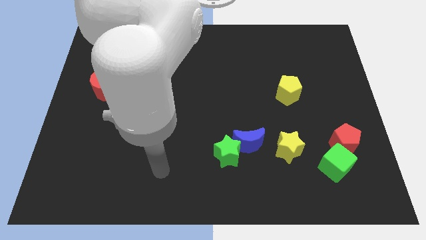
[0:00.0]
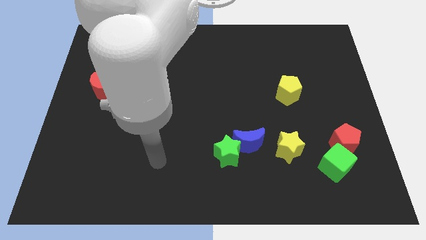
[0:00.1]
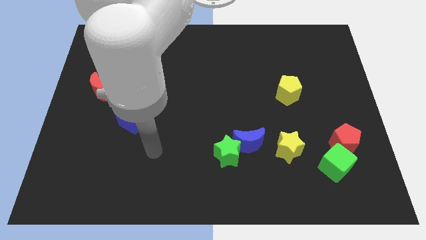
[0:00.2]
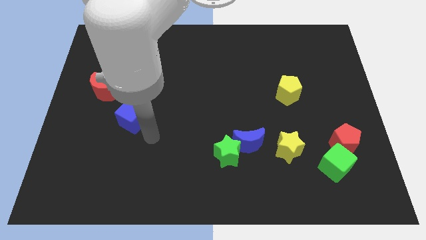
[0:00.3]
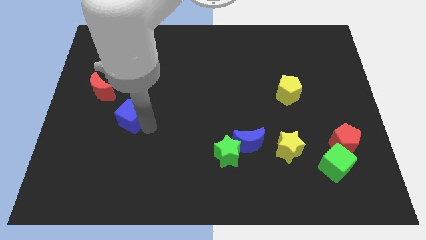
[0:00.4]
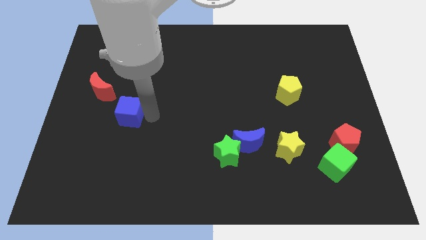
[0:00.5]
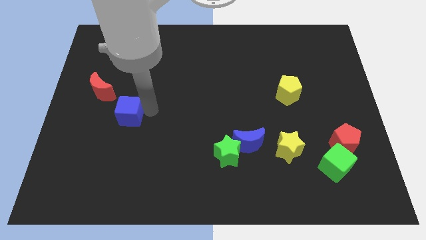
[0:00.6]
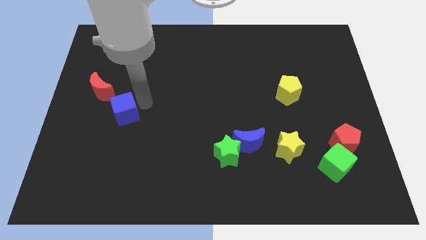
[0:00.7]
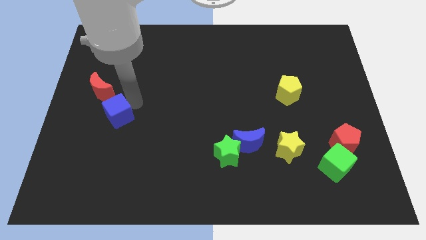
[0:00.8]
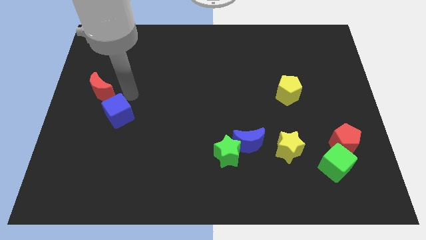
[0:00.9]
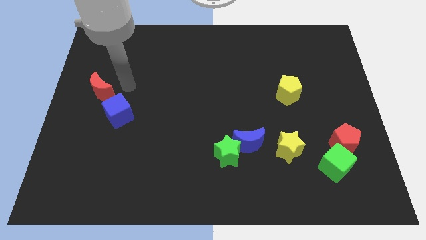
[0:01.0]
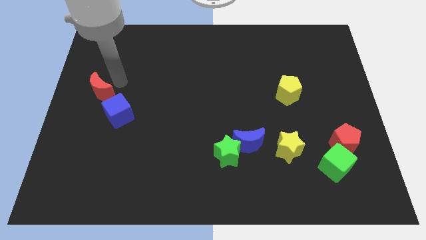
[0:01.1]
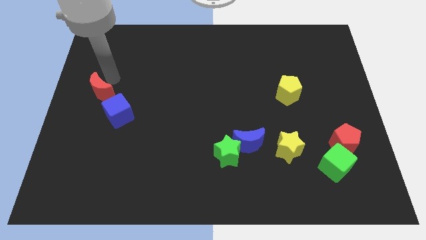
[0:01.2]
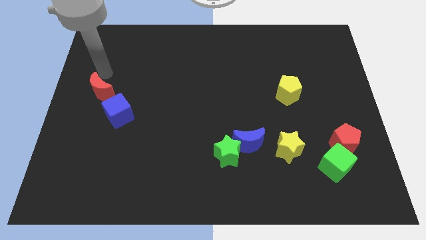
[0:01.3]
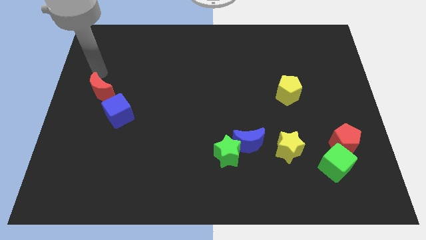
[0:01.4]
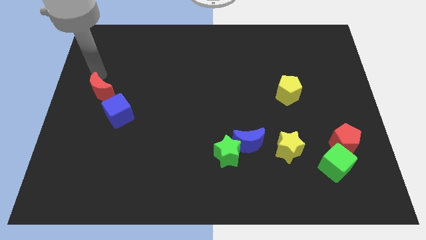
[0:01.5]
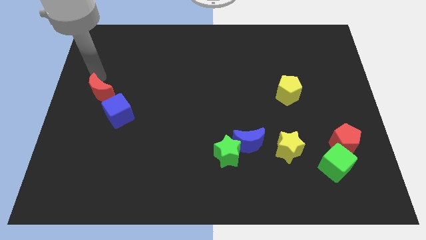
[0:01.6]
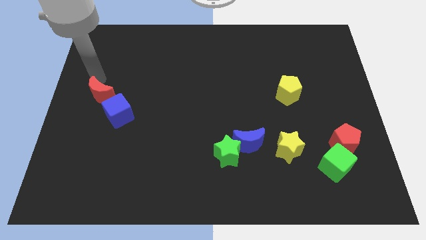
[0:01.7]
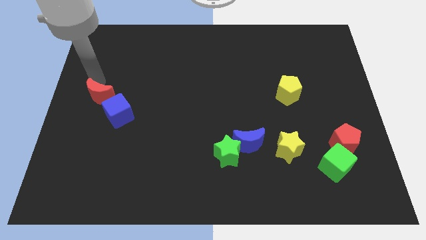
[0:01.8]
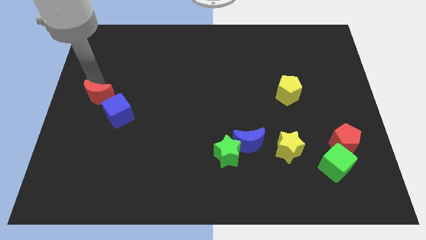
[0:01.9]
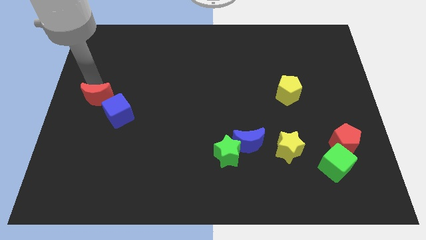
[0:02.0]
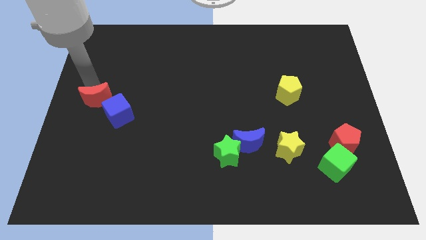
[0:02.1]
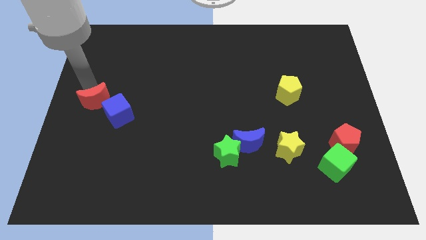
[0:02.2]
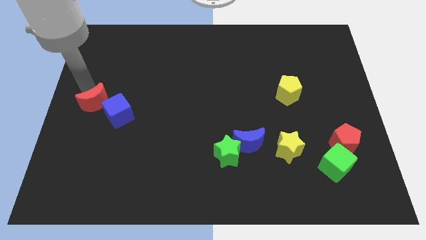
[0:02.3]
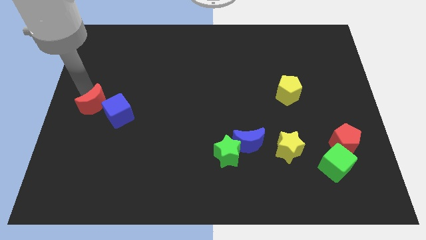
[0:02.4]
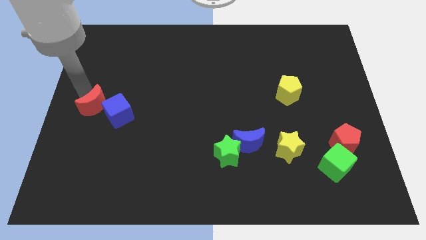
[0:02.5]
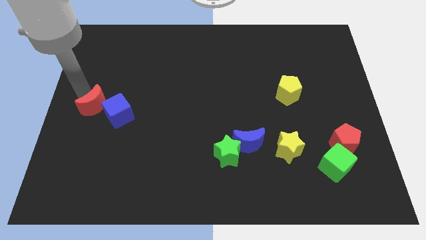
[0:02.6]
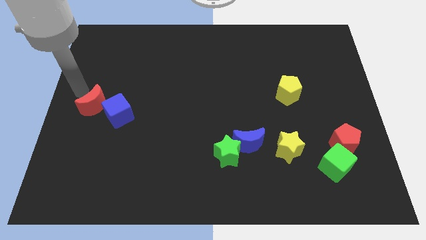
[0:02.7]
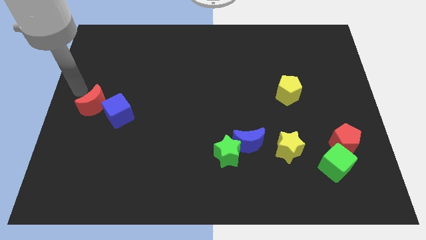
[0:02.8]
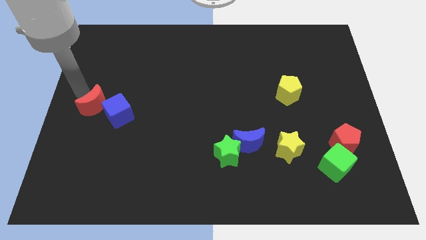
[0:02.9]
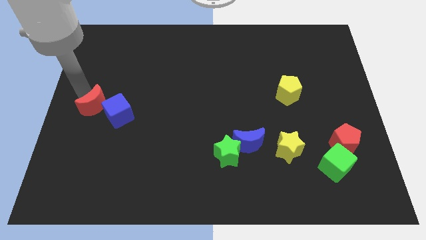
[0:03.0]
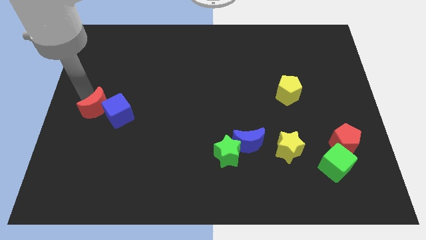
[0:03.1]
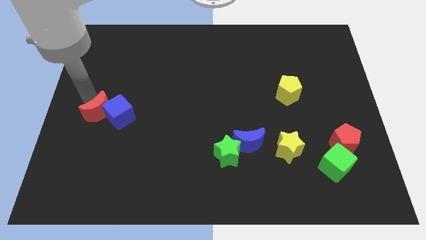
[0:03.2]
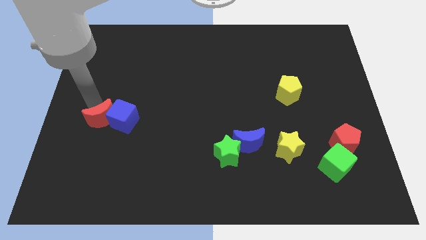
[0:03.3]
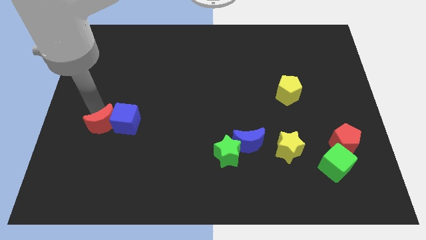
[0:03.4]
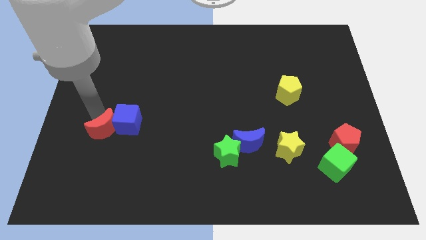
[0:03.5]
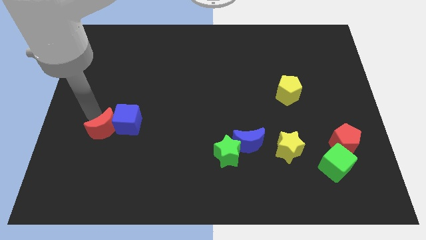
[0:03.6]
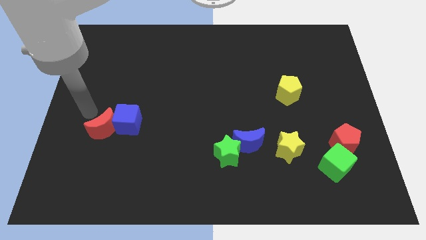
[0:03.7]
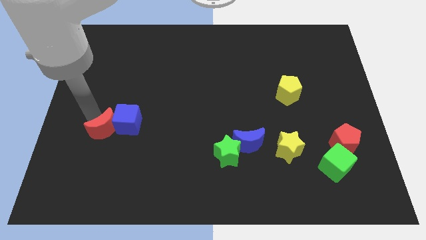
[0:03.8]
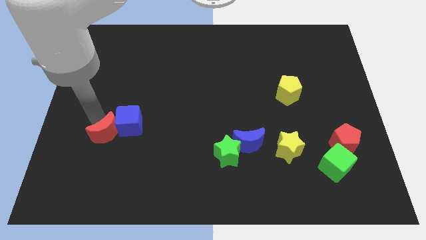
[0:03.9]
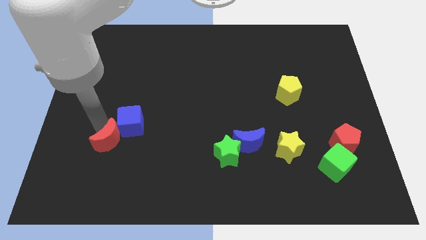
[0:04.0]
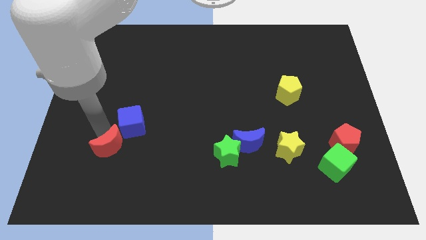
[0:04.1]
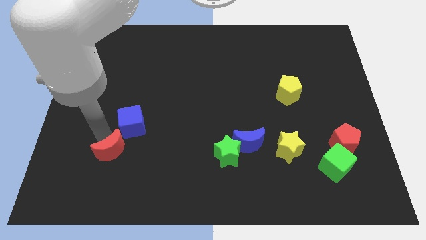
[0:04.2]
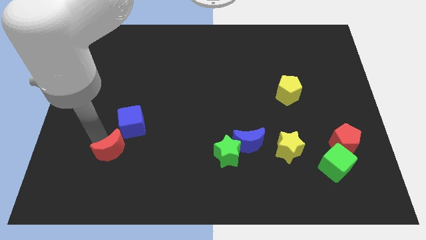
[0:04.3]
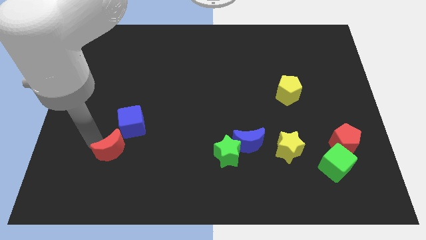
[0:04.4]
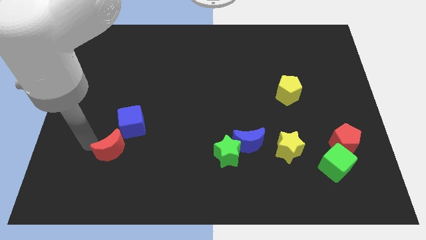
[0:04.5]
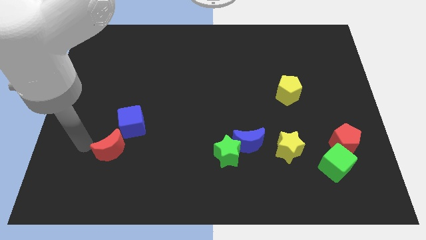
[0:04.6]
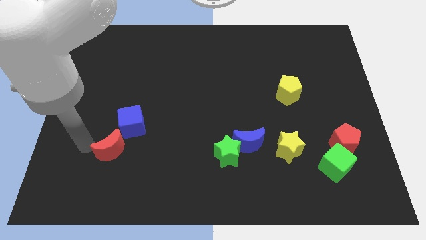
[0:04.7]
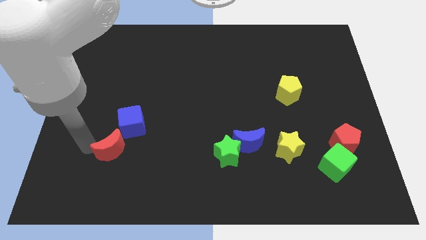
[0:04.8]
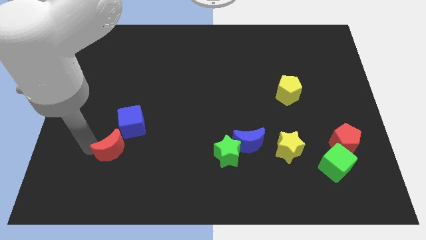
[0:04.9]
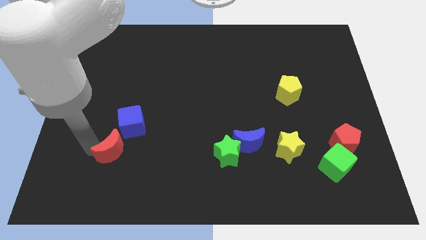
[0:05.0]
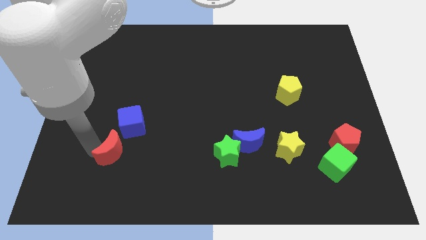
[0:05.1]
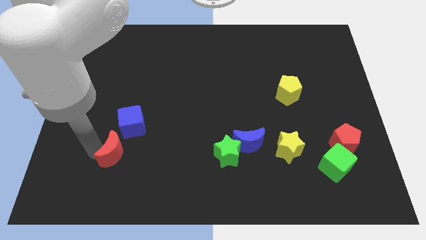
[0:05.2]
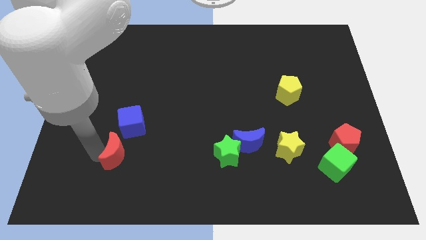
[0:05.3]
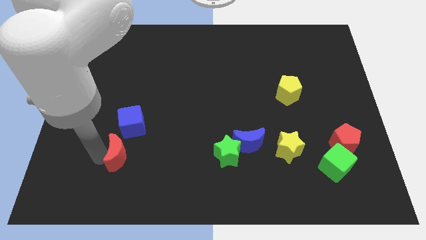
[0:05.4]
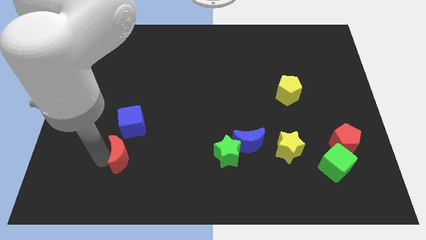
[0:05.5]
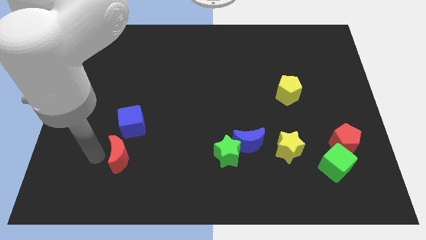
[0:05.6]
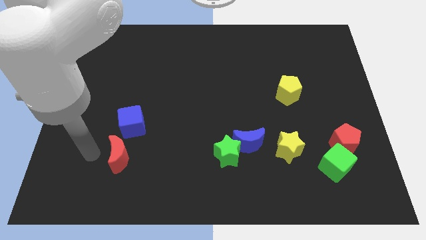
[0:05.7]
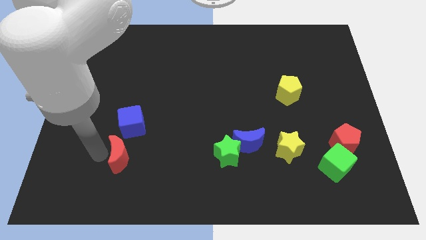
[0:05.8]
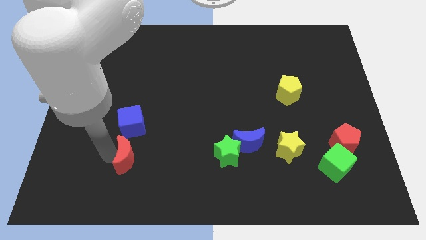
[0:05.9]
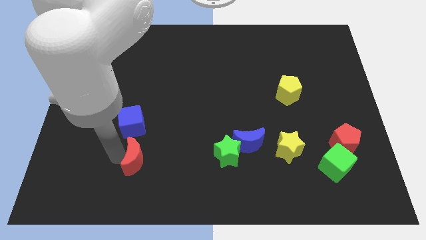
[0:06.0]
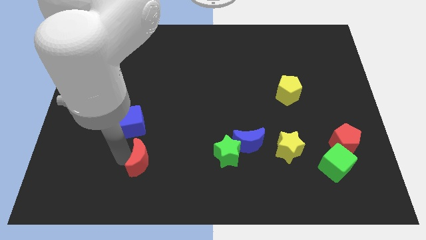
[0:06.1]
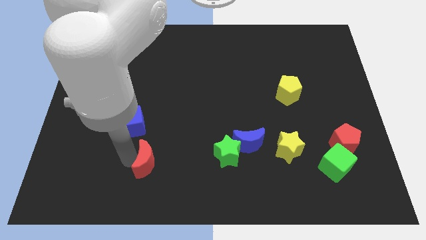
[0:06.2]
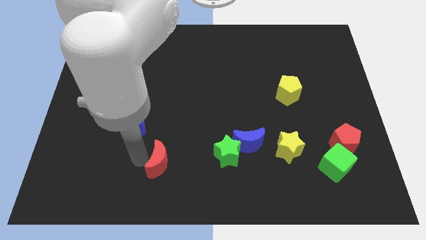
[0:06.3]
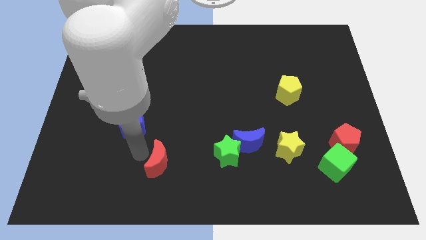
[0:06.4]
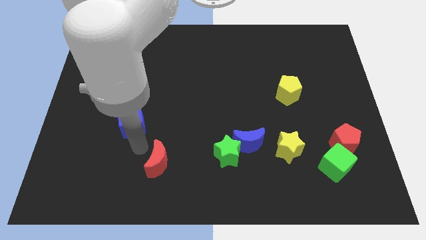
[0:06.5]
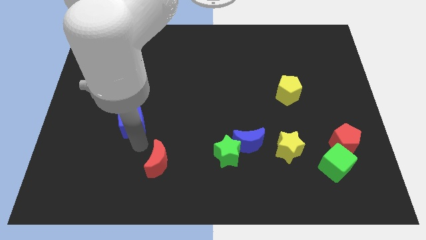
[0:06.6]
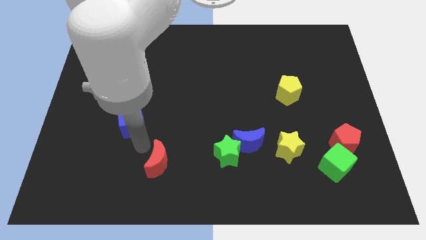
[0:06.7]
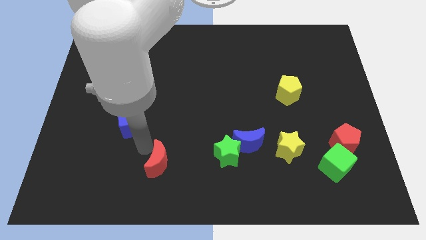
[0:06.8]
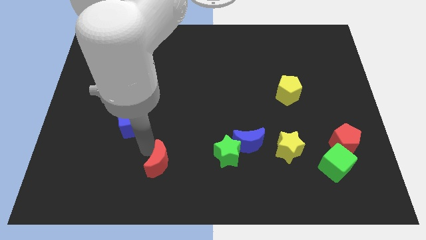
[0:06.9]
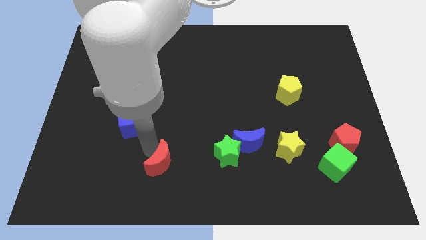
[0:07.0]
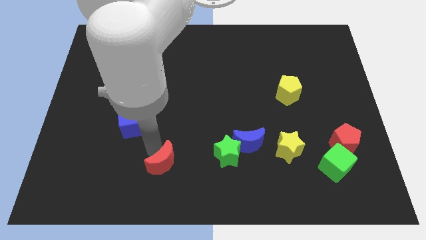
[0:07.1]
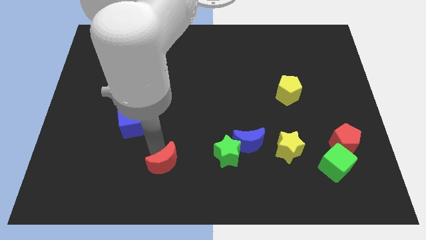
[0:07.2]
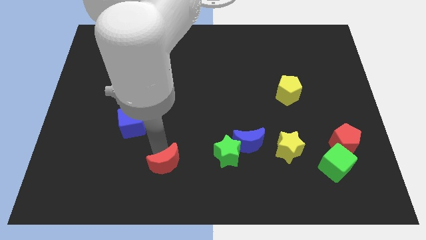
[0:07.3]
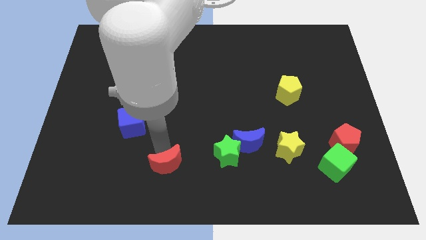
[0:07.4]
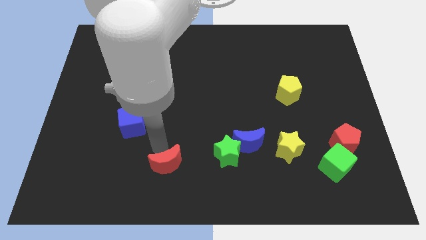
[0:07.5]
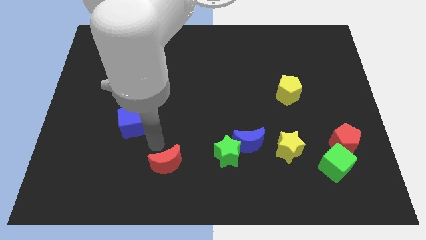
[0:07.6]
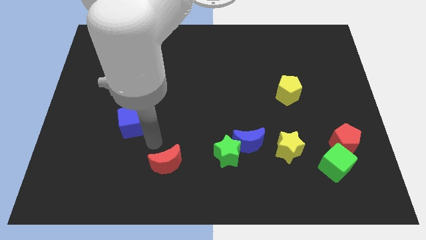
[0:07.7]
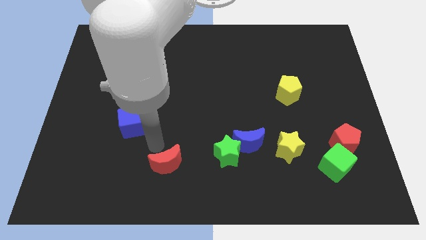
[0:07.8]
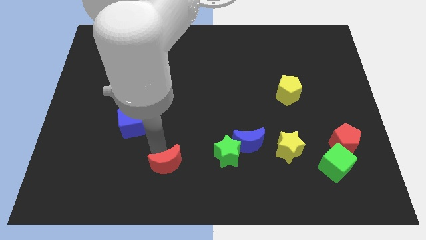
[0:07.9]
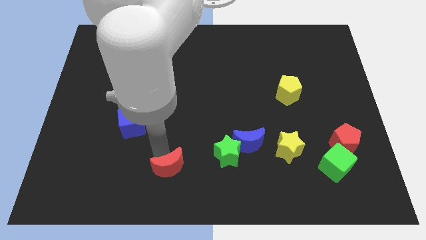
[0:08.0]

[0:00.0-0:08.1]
move the red moon to the bottom
